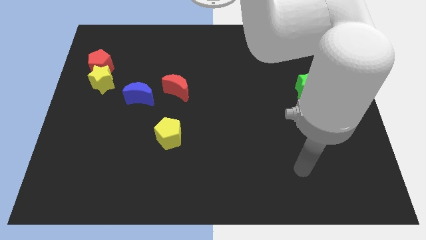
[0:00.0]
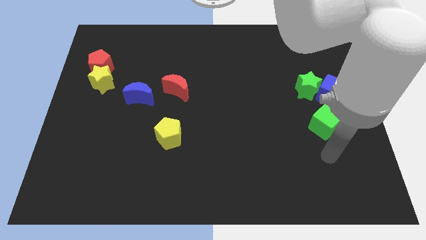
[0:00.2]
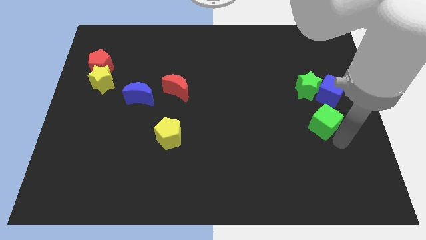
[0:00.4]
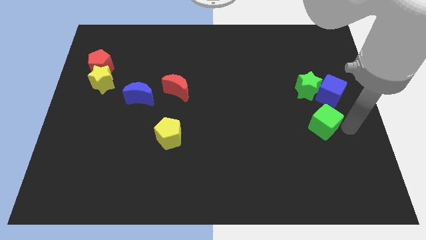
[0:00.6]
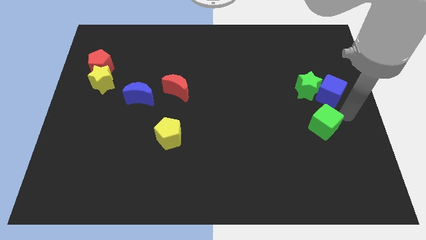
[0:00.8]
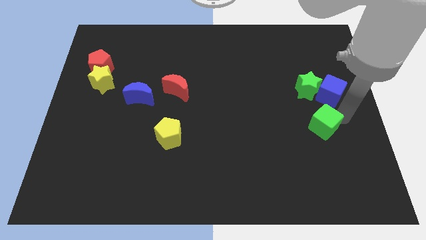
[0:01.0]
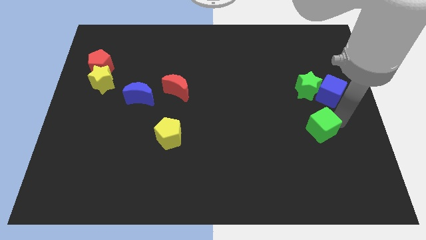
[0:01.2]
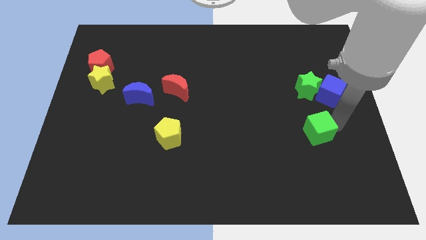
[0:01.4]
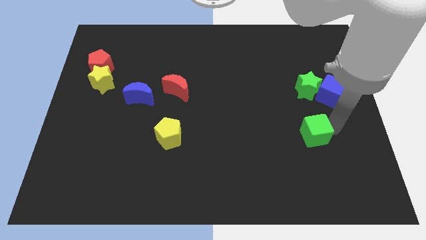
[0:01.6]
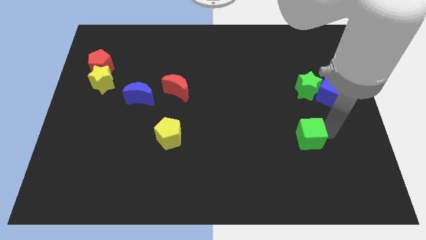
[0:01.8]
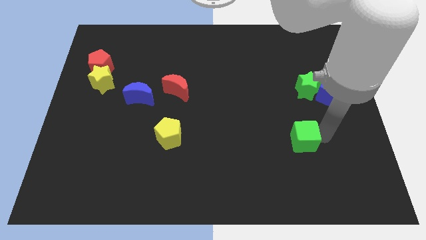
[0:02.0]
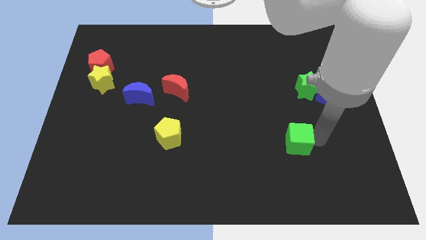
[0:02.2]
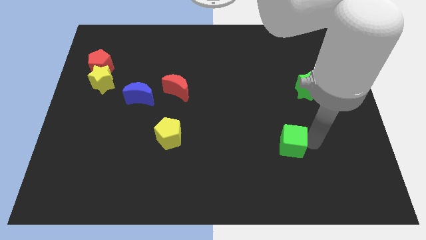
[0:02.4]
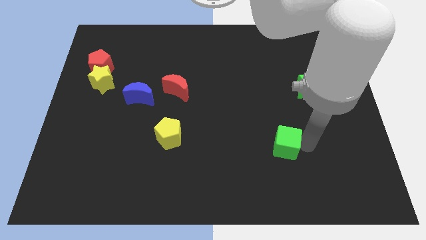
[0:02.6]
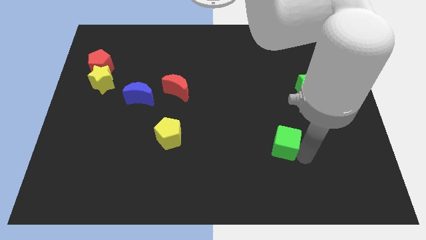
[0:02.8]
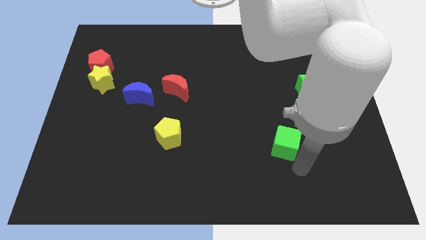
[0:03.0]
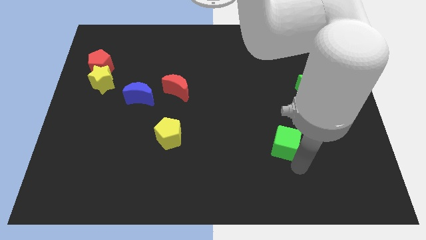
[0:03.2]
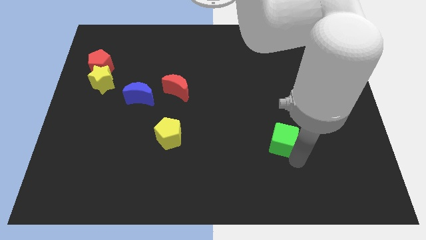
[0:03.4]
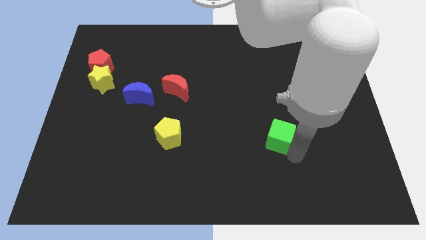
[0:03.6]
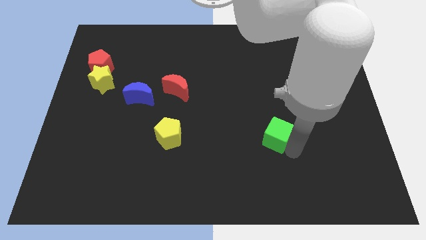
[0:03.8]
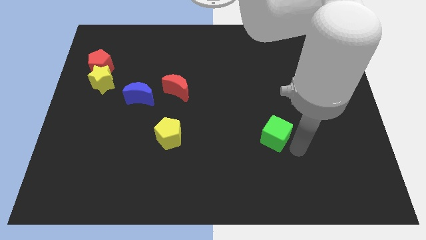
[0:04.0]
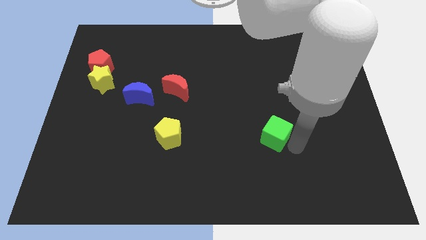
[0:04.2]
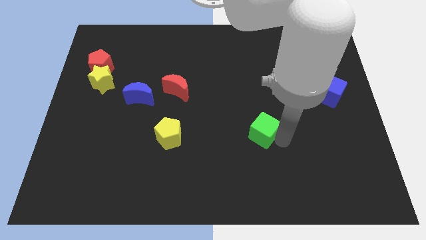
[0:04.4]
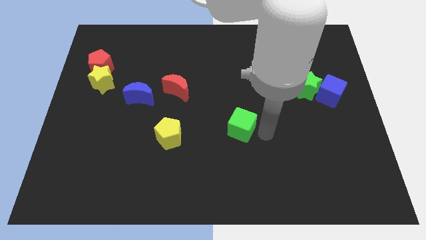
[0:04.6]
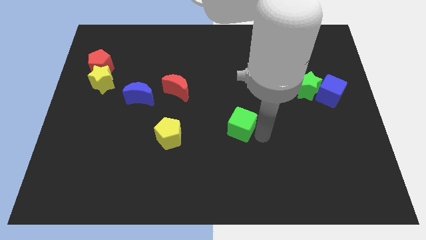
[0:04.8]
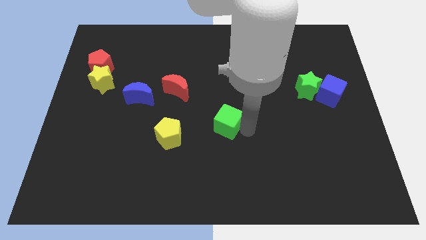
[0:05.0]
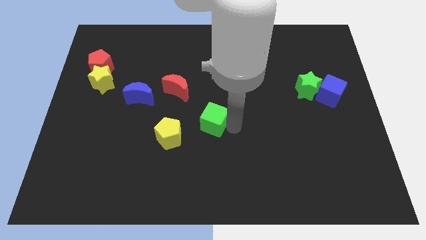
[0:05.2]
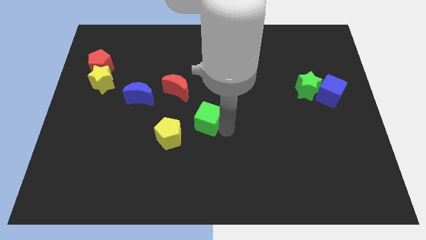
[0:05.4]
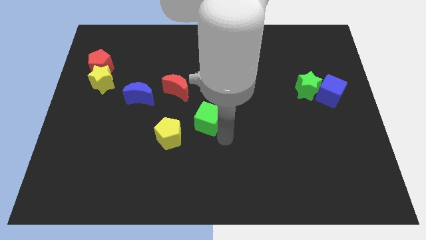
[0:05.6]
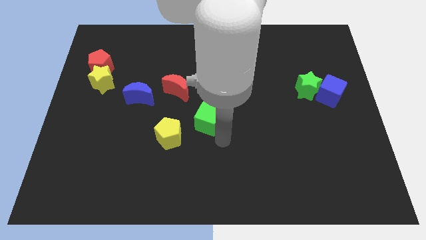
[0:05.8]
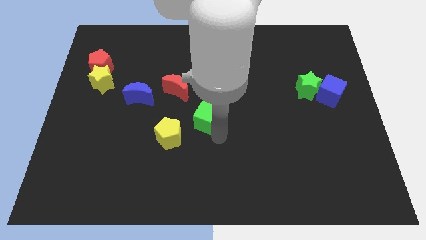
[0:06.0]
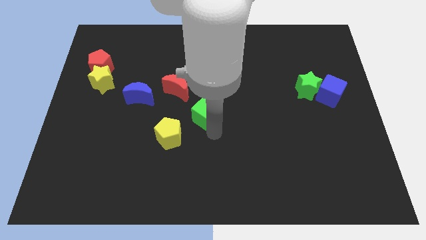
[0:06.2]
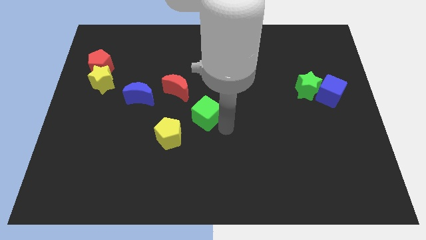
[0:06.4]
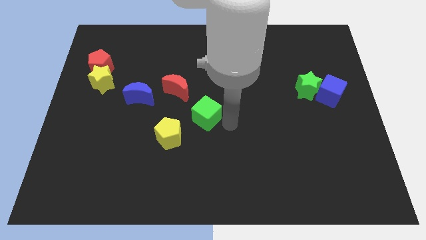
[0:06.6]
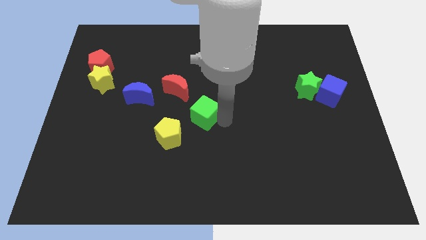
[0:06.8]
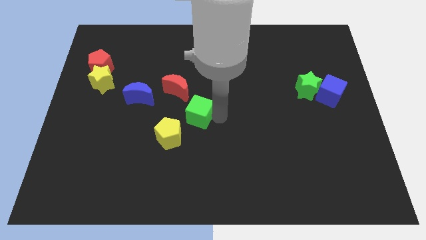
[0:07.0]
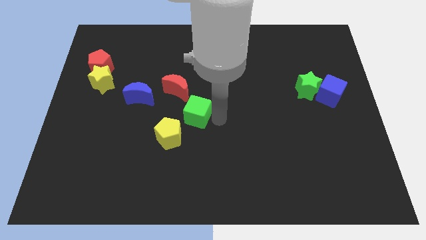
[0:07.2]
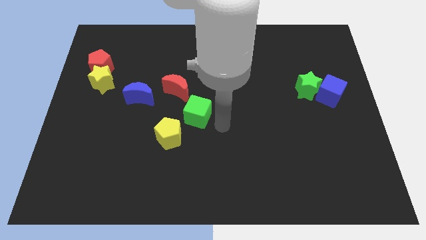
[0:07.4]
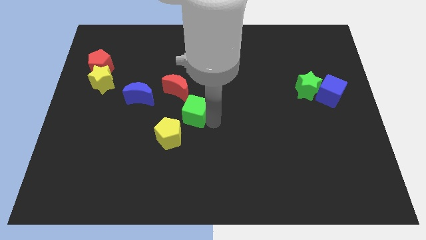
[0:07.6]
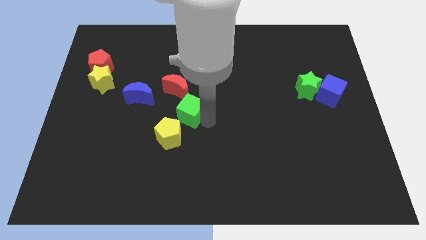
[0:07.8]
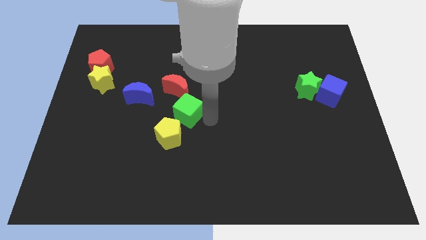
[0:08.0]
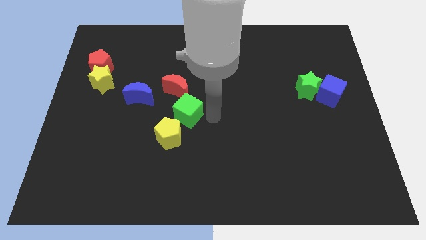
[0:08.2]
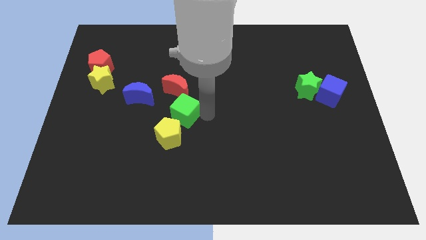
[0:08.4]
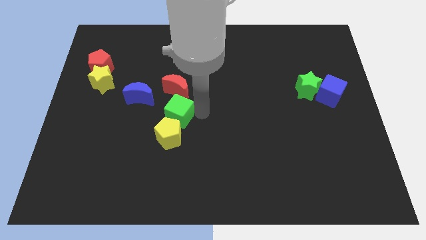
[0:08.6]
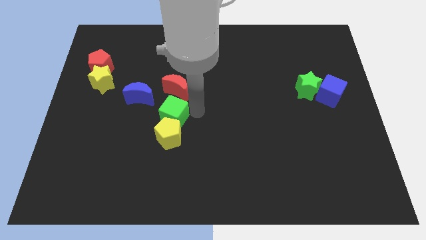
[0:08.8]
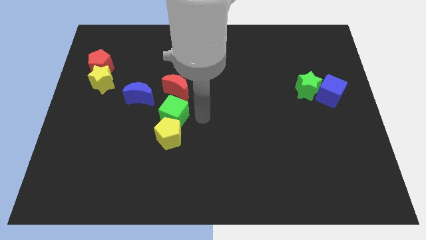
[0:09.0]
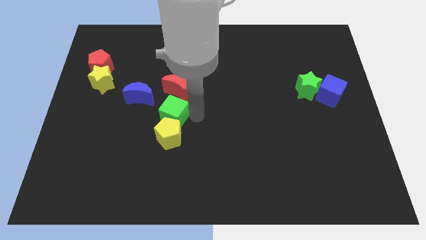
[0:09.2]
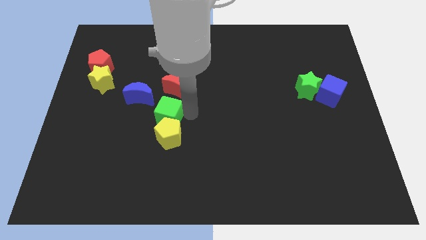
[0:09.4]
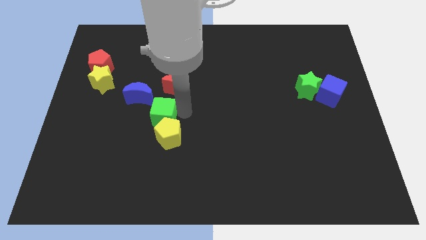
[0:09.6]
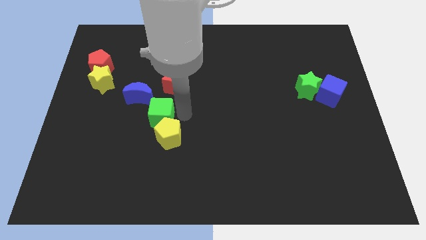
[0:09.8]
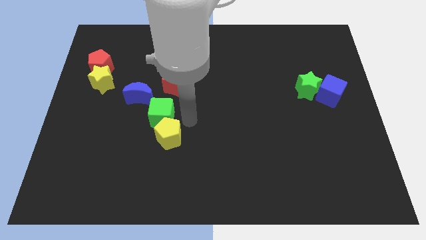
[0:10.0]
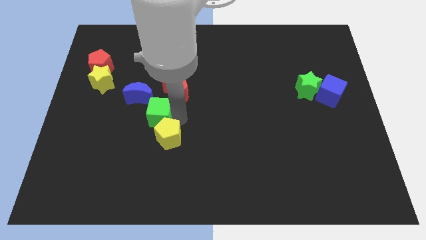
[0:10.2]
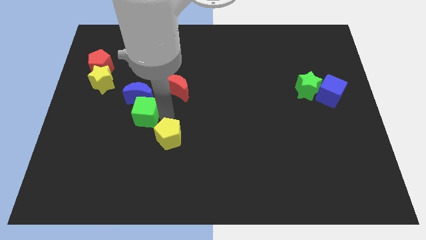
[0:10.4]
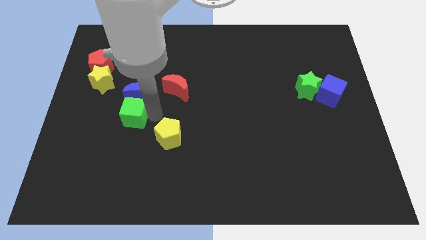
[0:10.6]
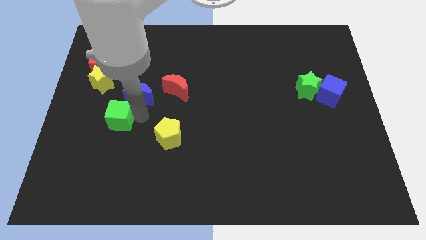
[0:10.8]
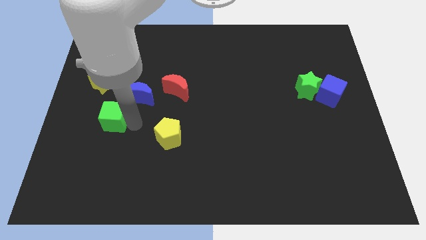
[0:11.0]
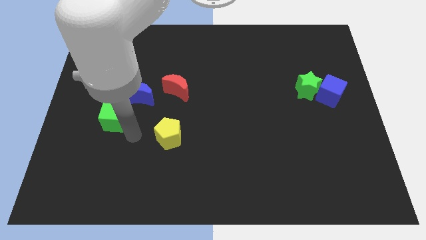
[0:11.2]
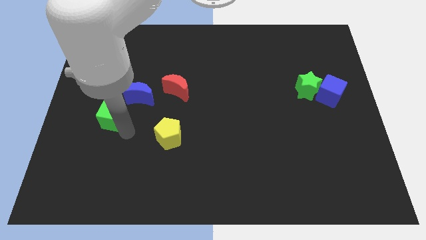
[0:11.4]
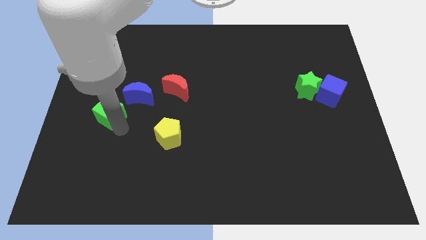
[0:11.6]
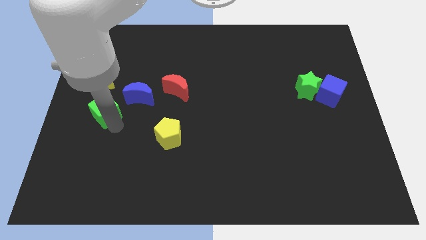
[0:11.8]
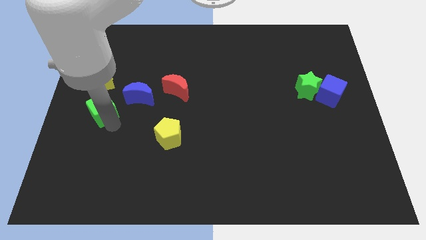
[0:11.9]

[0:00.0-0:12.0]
put the green cube to the bottom side of the red pentagon
